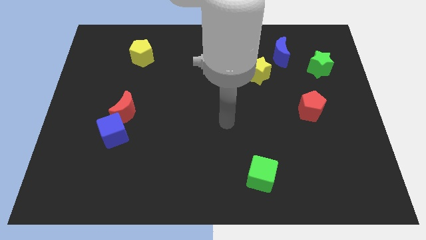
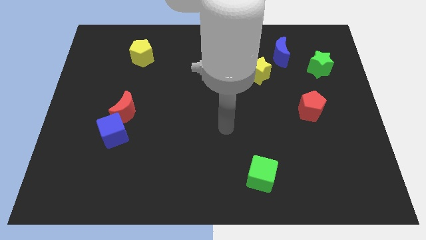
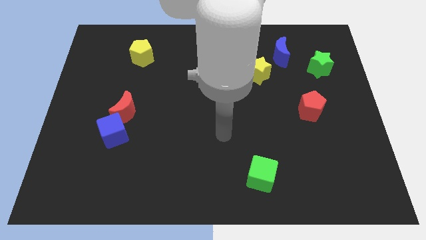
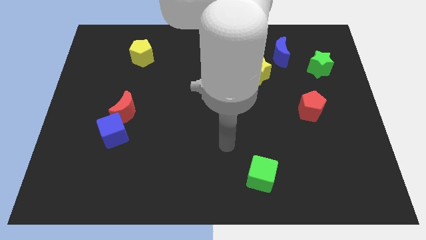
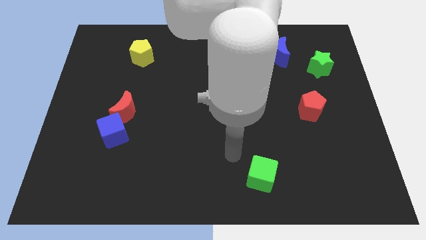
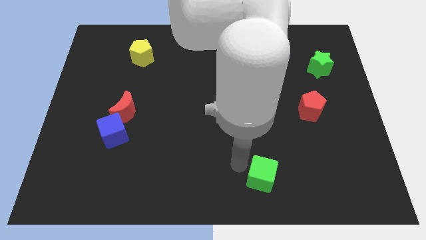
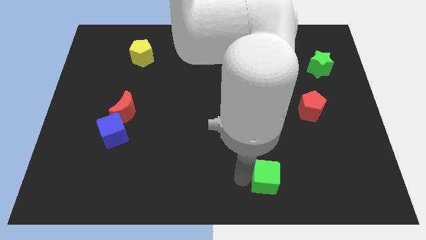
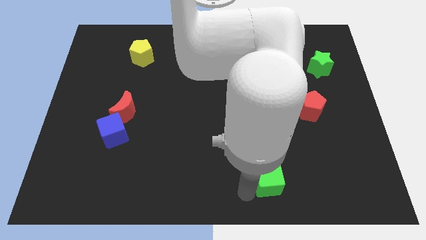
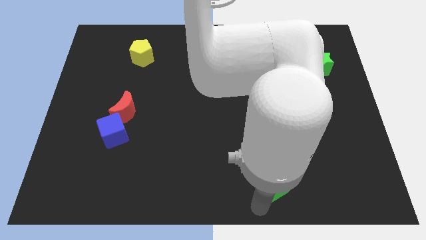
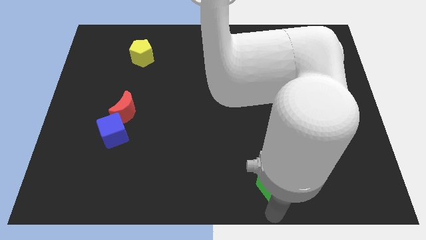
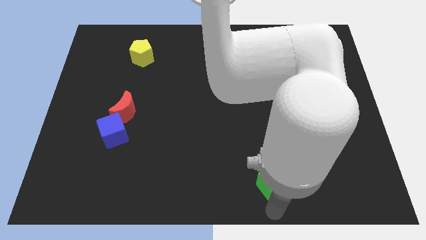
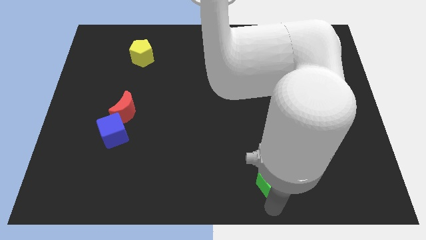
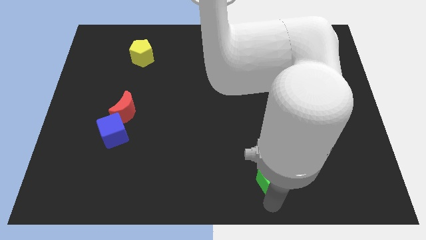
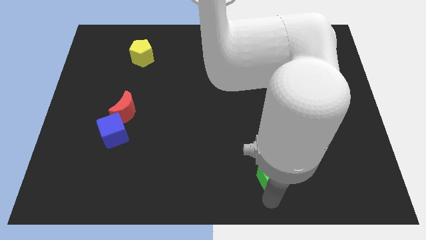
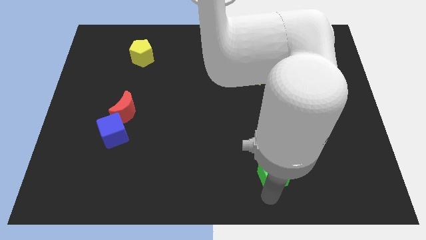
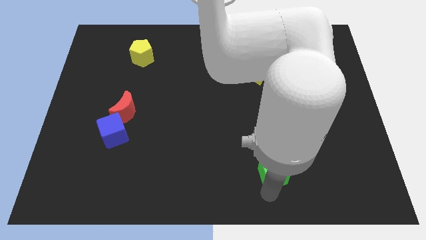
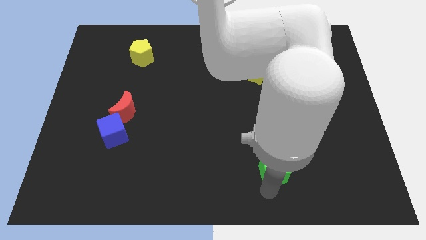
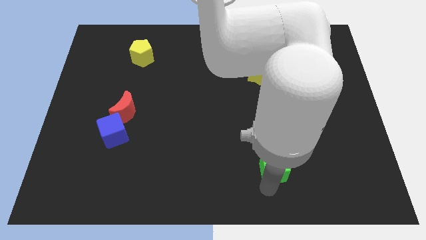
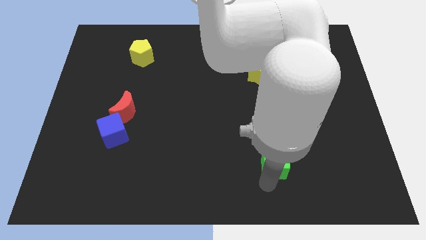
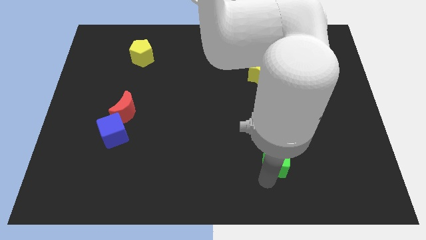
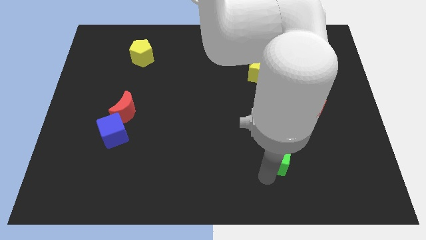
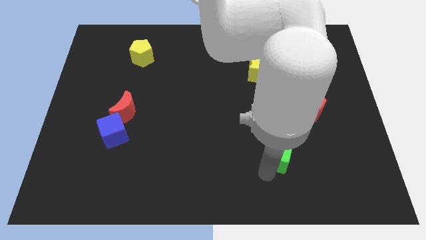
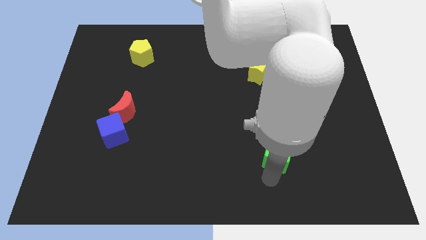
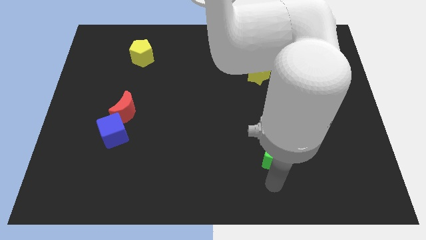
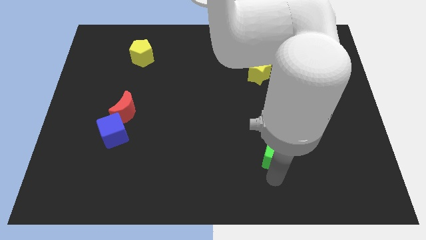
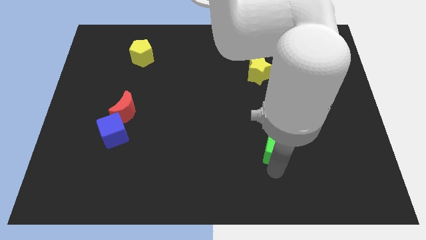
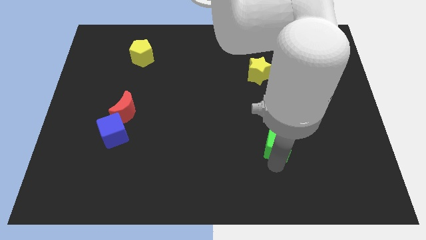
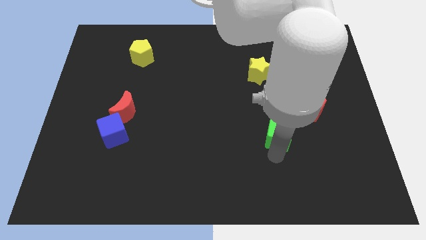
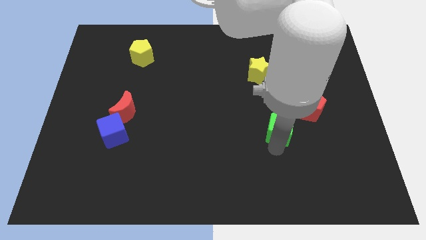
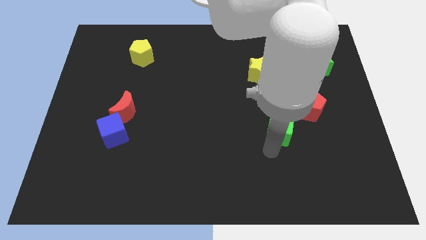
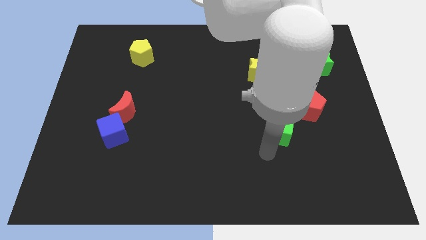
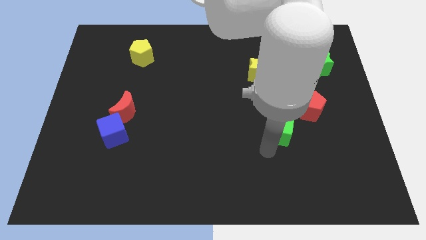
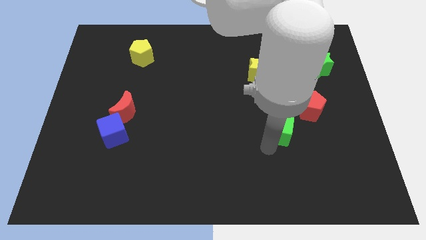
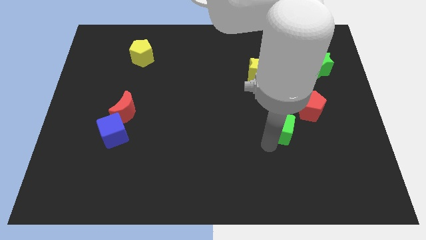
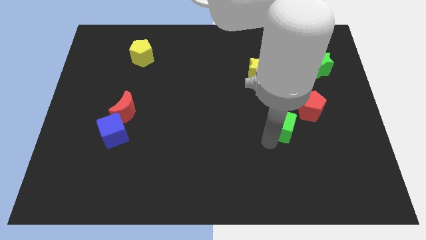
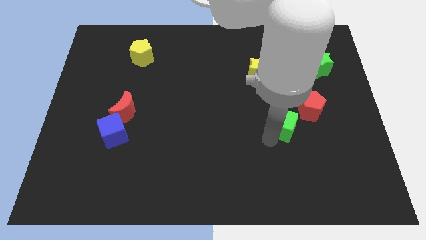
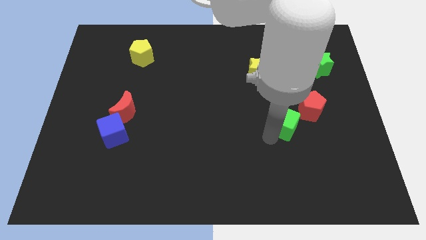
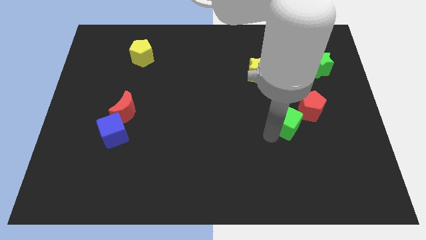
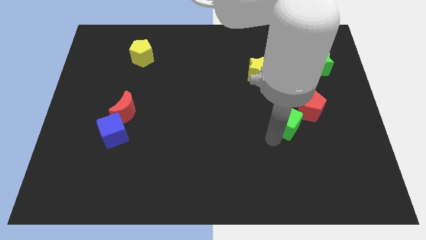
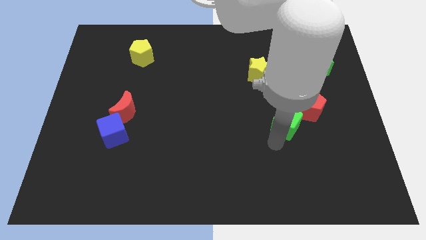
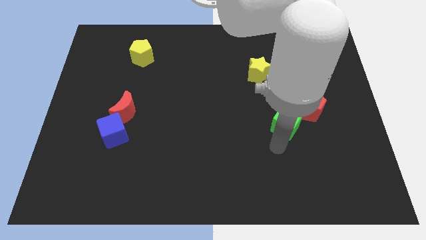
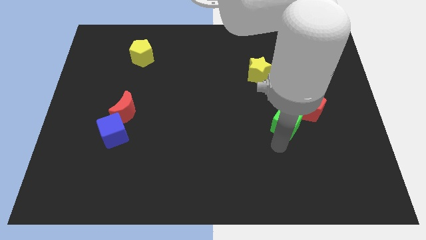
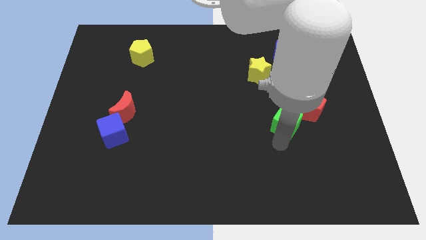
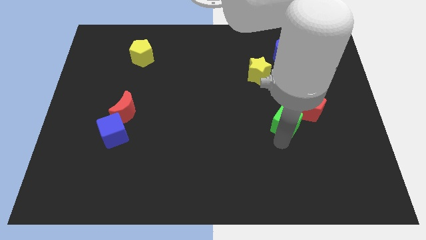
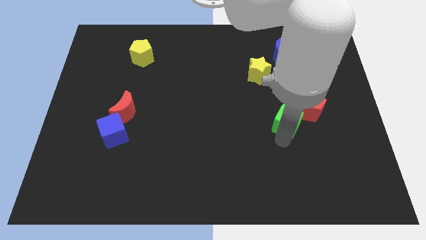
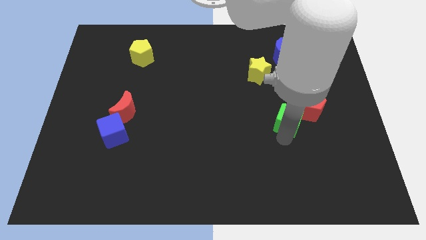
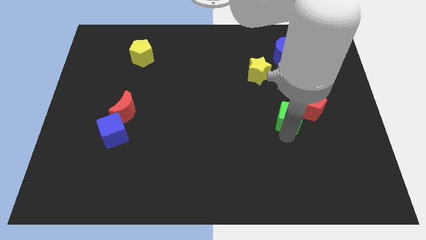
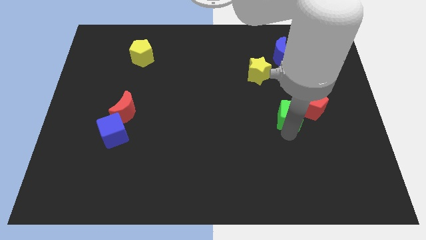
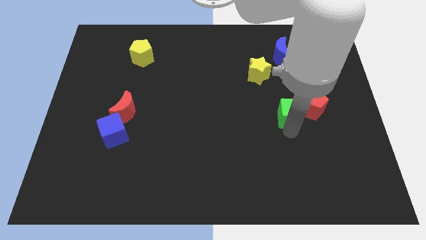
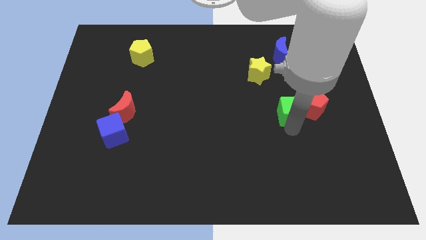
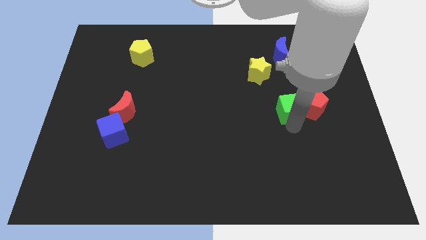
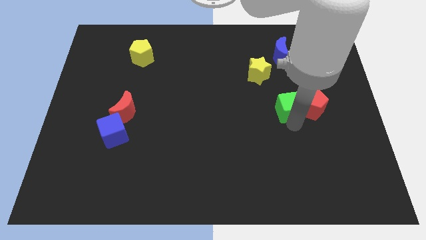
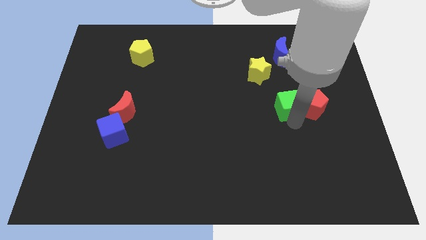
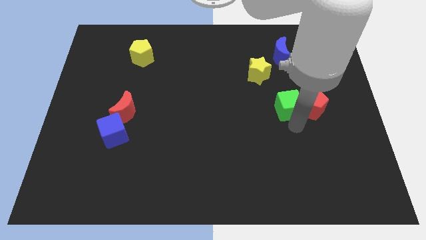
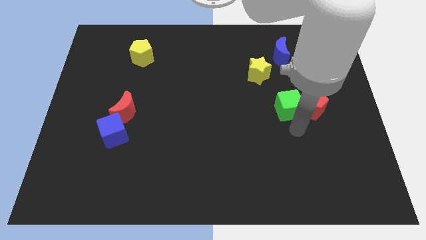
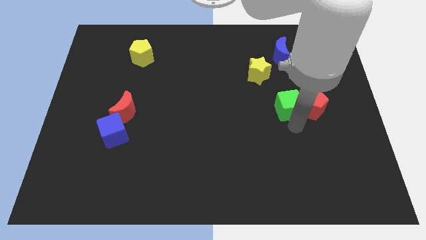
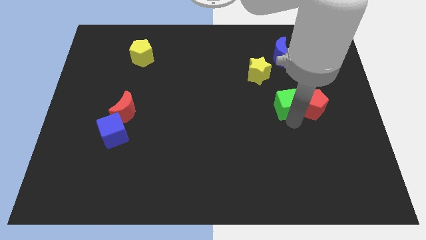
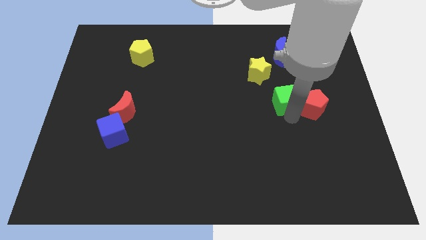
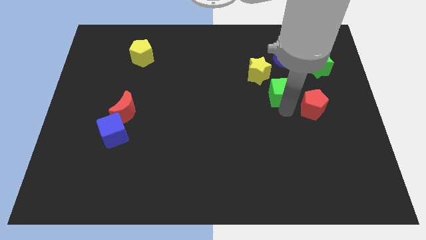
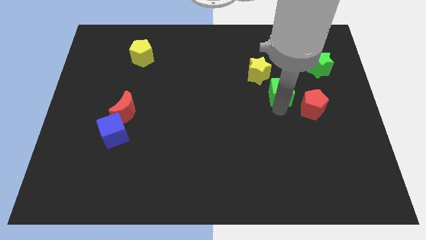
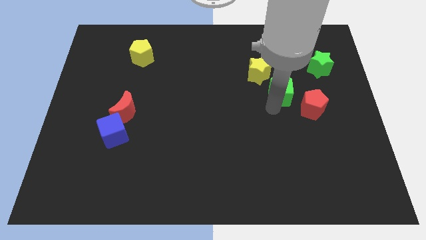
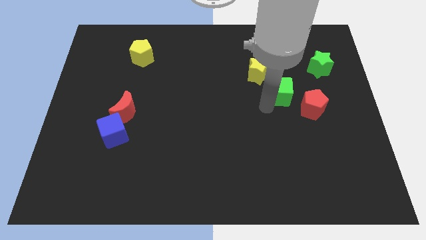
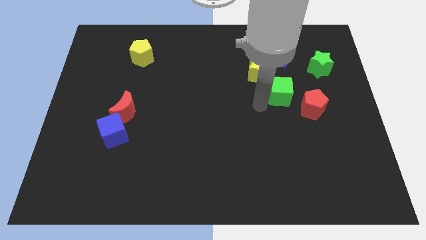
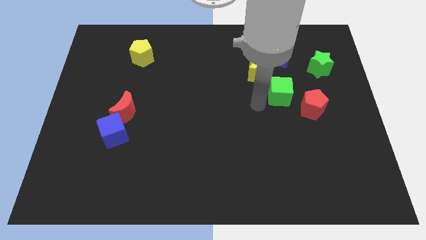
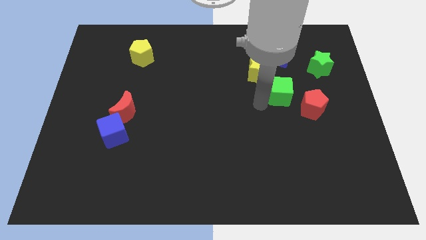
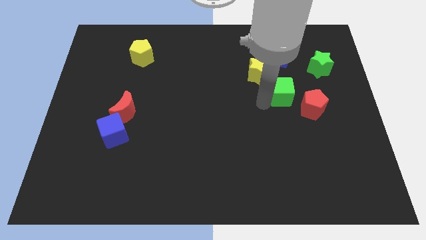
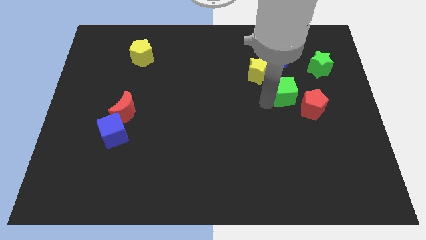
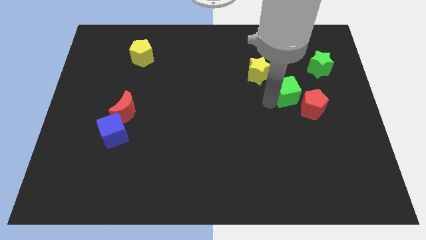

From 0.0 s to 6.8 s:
slide the green cube to the bottom left of the green star
